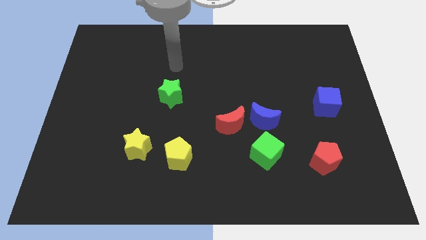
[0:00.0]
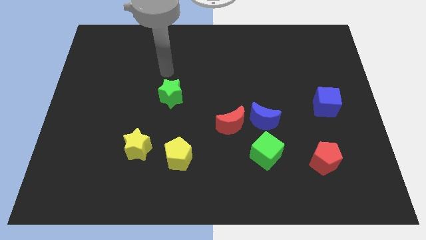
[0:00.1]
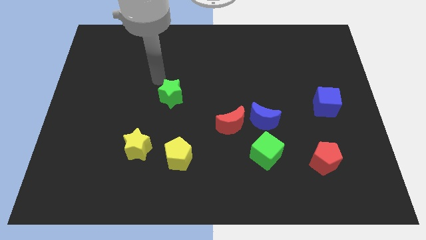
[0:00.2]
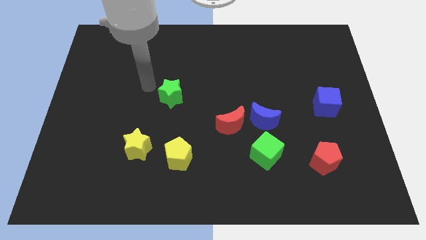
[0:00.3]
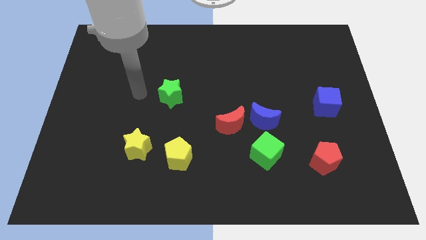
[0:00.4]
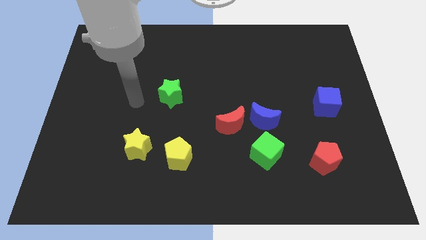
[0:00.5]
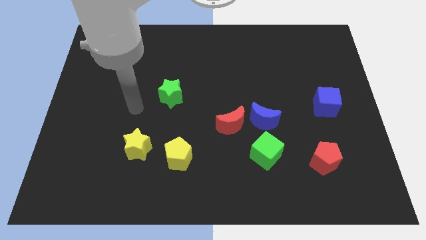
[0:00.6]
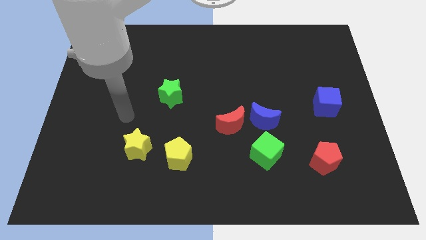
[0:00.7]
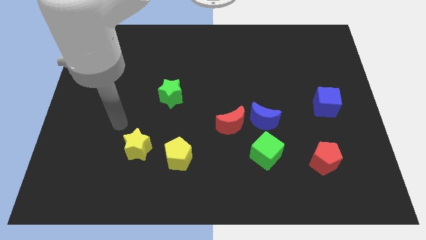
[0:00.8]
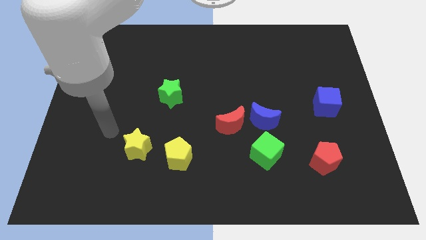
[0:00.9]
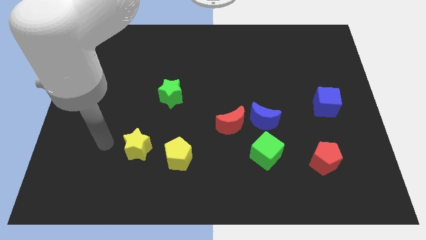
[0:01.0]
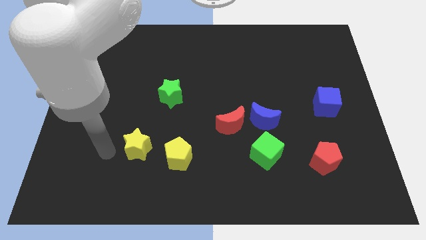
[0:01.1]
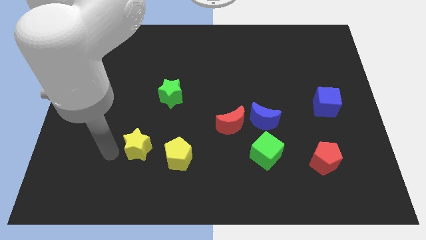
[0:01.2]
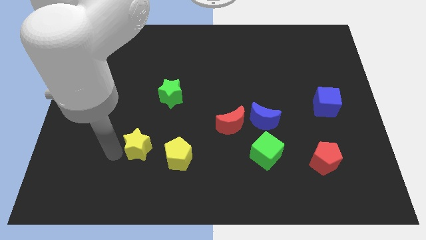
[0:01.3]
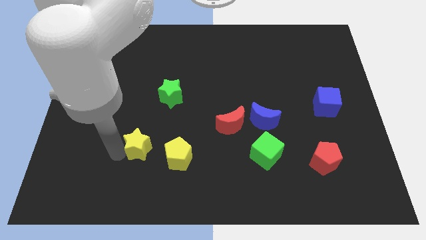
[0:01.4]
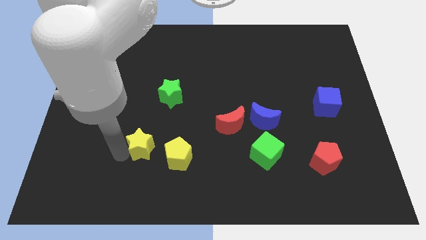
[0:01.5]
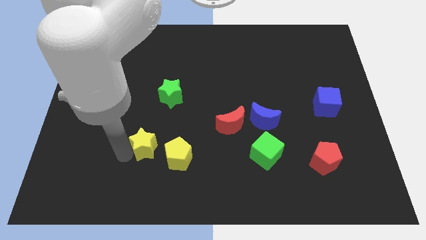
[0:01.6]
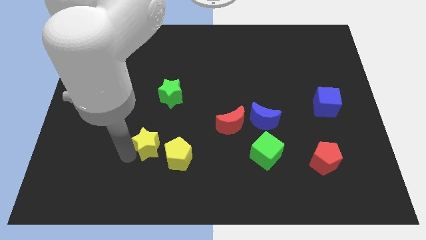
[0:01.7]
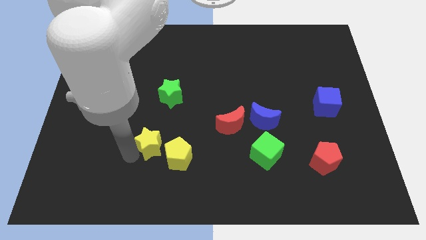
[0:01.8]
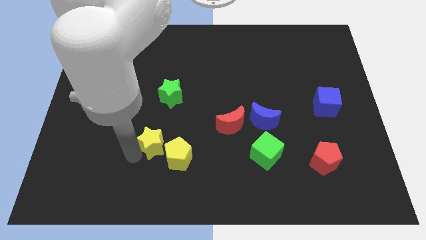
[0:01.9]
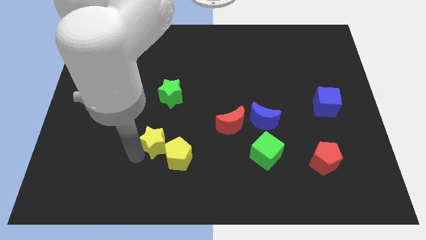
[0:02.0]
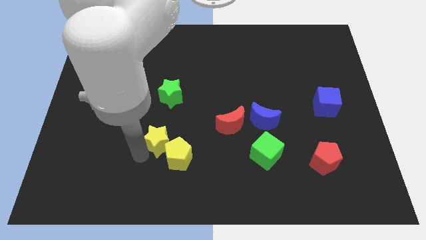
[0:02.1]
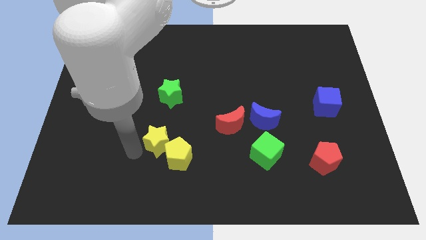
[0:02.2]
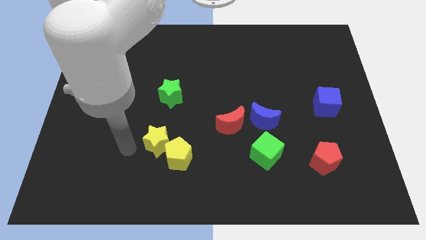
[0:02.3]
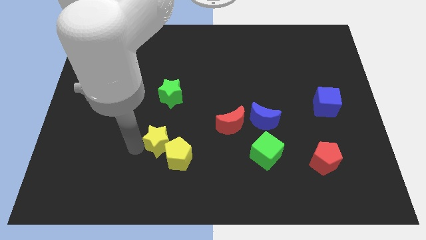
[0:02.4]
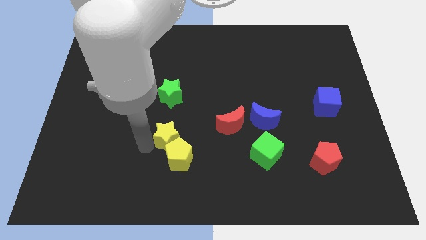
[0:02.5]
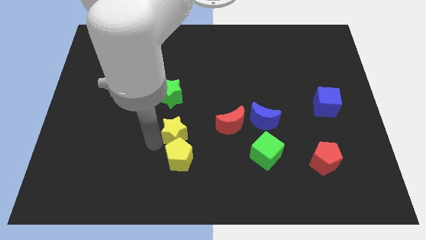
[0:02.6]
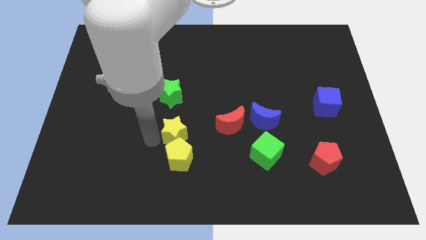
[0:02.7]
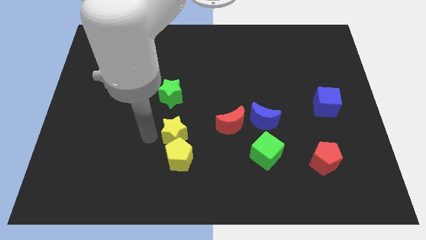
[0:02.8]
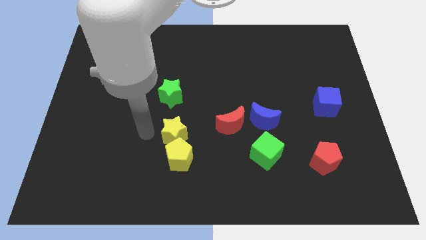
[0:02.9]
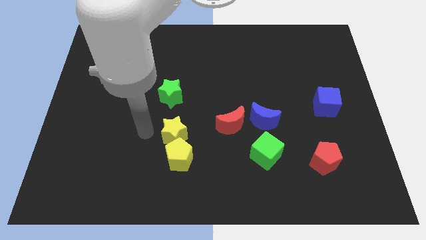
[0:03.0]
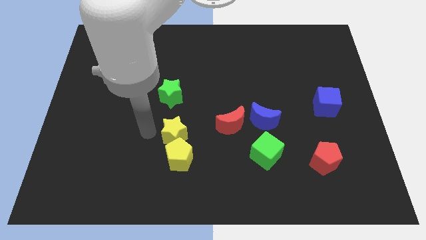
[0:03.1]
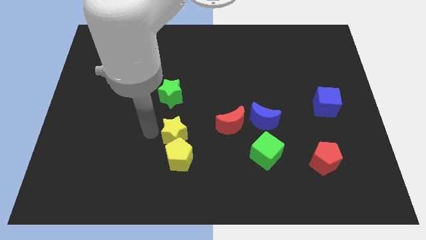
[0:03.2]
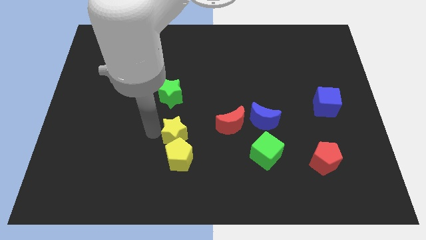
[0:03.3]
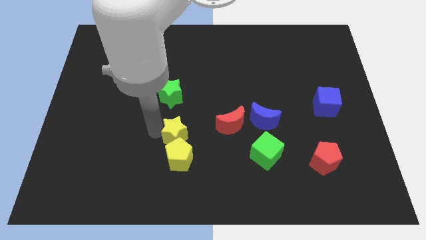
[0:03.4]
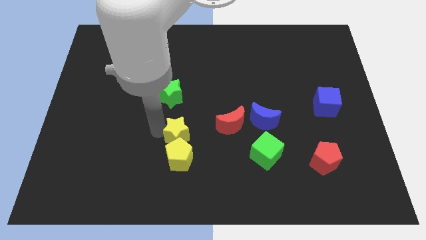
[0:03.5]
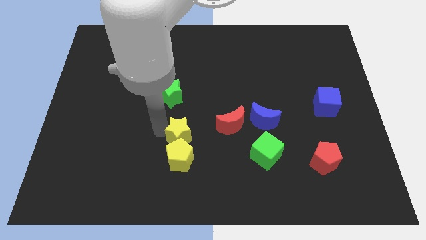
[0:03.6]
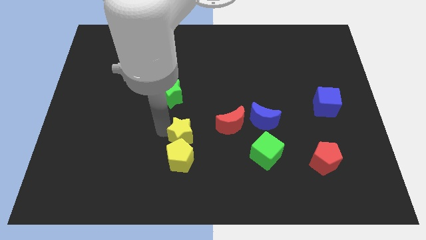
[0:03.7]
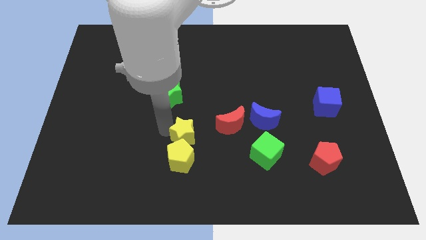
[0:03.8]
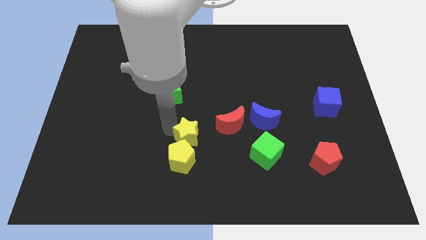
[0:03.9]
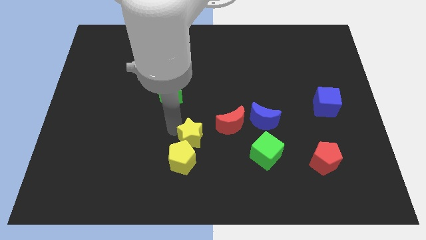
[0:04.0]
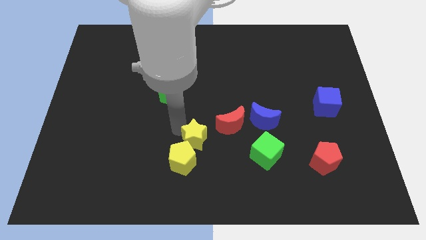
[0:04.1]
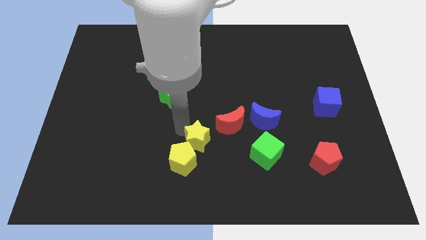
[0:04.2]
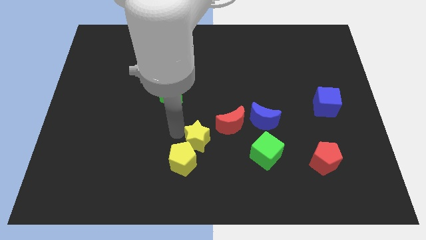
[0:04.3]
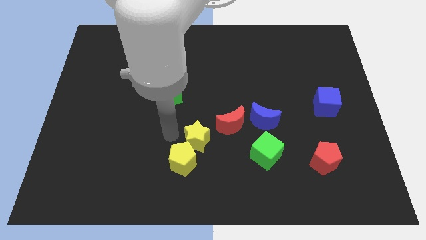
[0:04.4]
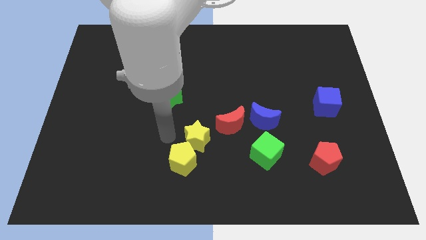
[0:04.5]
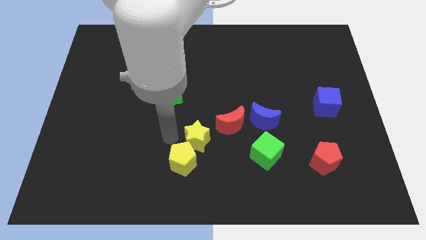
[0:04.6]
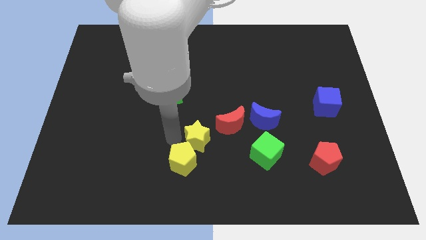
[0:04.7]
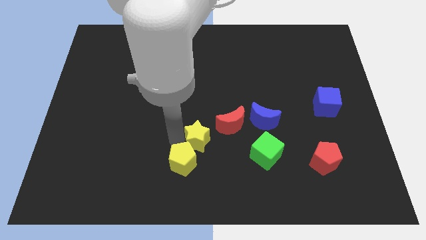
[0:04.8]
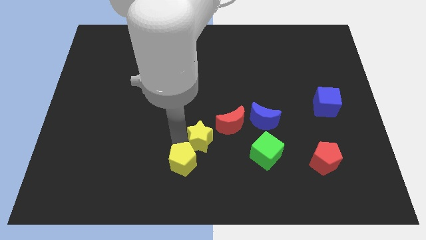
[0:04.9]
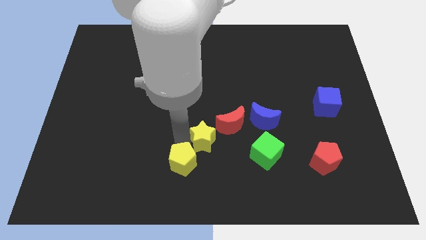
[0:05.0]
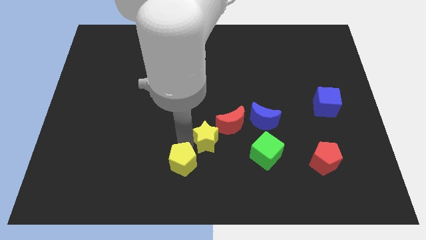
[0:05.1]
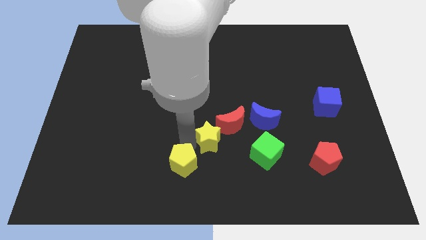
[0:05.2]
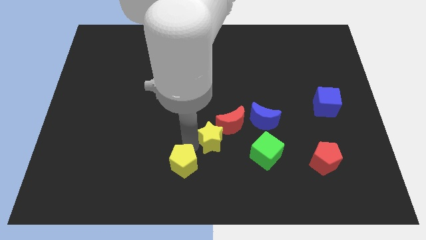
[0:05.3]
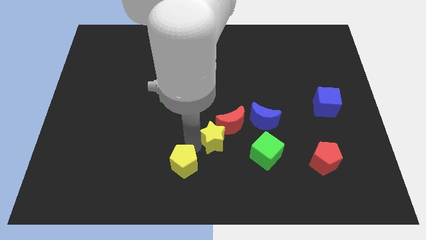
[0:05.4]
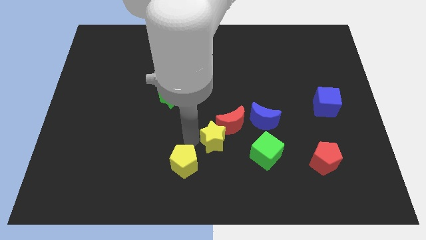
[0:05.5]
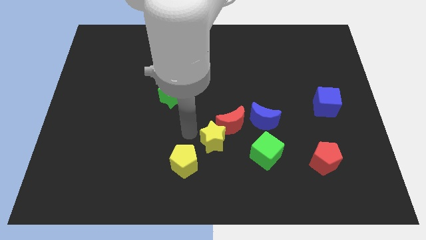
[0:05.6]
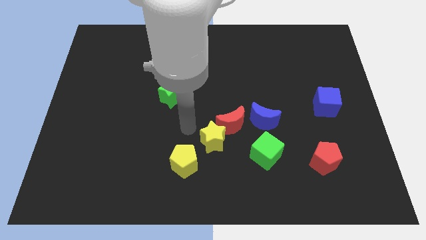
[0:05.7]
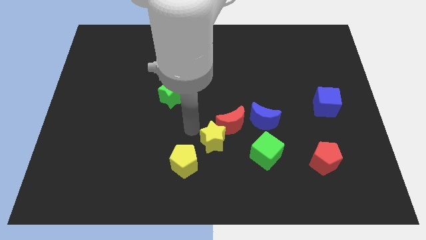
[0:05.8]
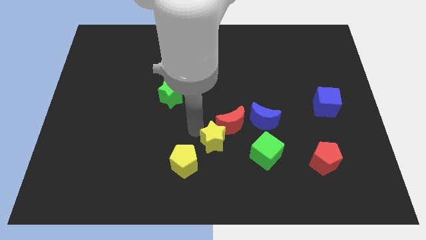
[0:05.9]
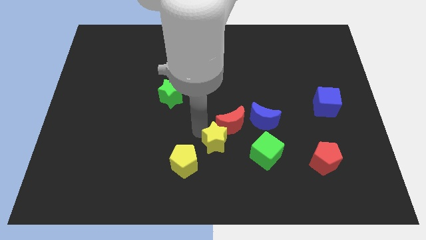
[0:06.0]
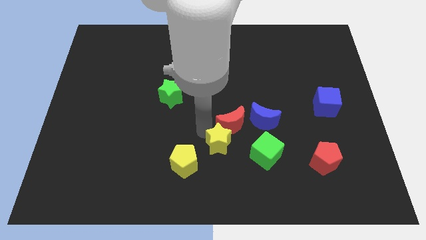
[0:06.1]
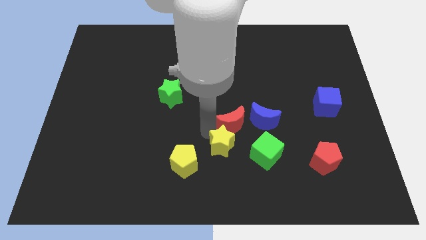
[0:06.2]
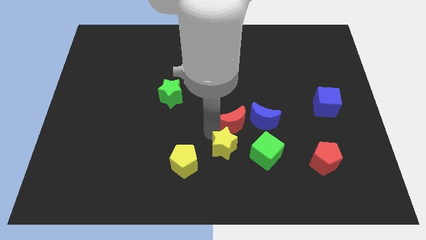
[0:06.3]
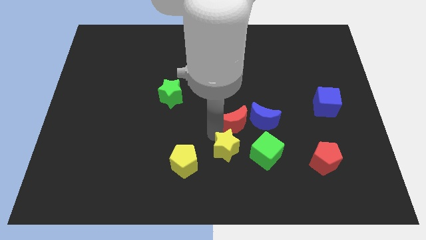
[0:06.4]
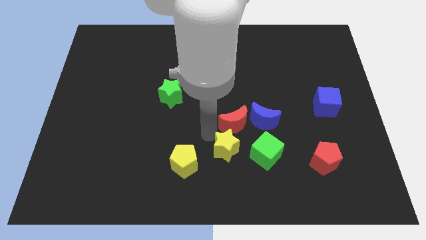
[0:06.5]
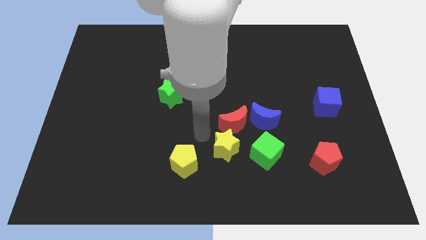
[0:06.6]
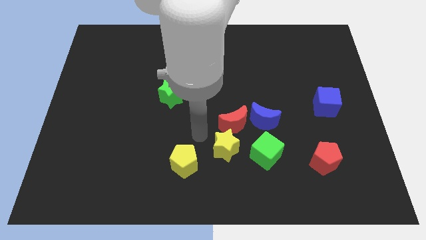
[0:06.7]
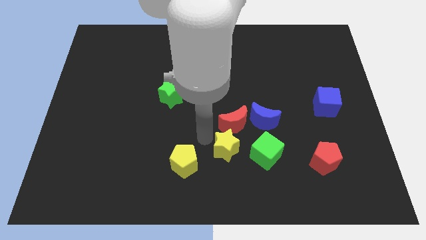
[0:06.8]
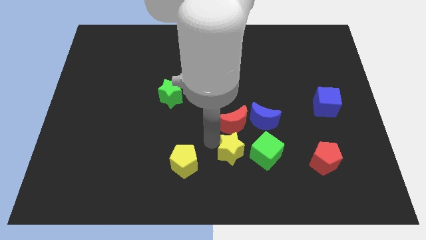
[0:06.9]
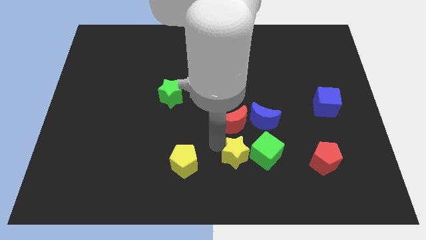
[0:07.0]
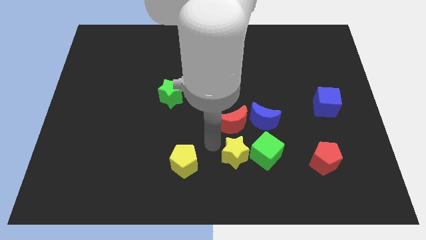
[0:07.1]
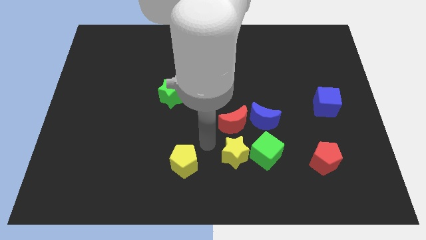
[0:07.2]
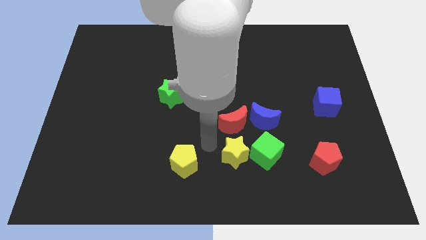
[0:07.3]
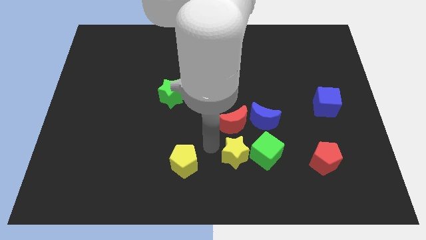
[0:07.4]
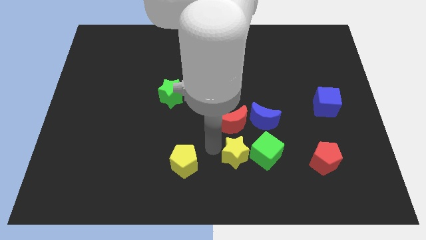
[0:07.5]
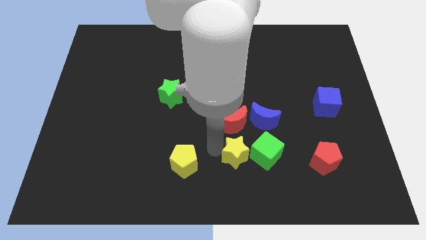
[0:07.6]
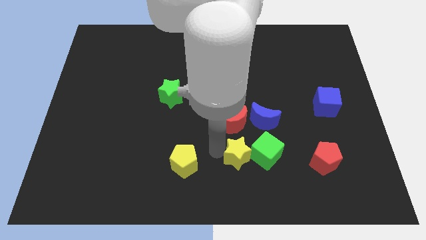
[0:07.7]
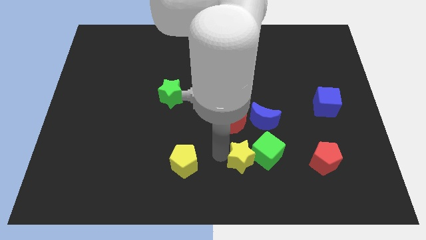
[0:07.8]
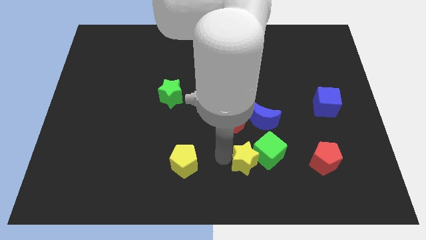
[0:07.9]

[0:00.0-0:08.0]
slide the yellow star below the blue moon
